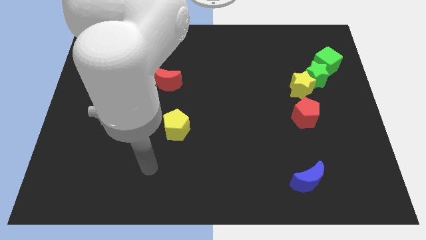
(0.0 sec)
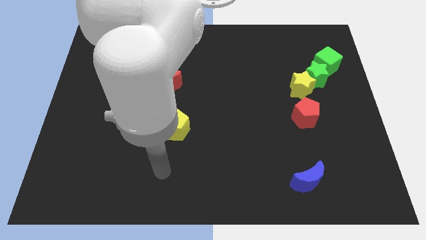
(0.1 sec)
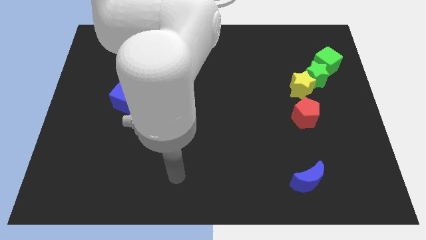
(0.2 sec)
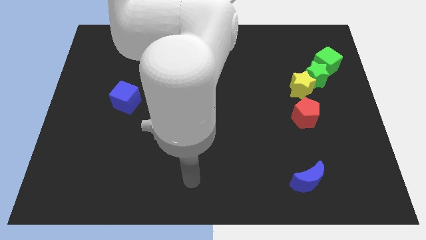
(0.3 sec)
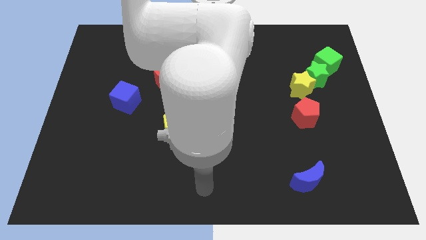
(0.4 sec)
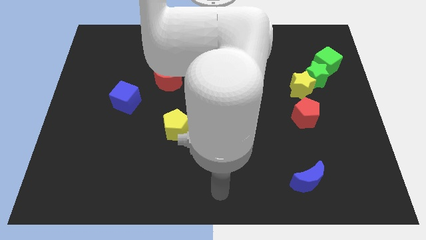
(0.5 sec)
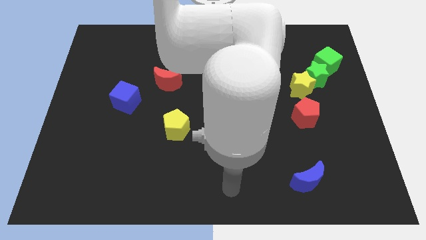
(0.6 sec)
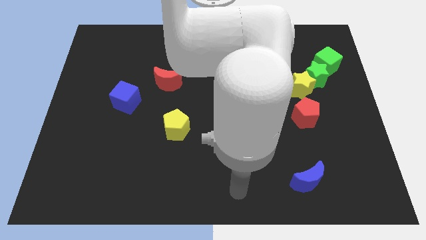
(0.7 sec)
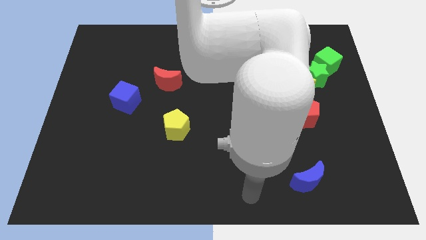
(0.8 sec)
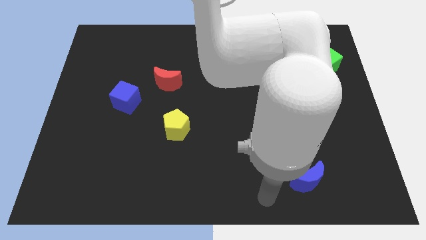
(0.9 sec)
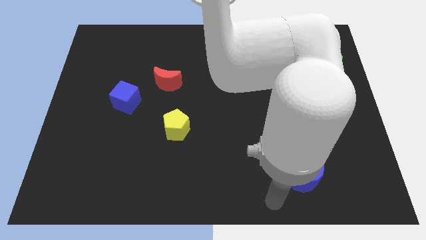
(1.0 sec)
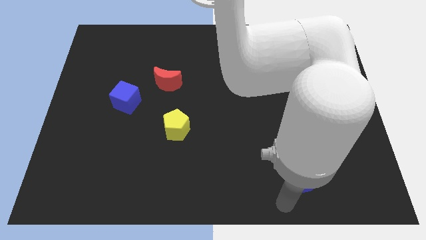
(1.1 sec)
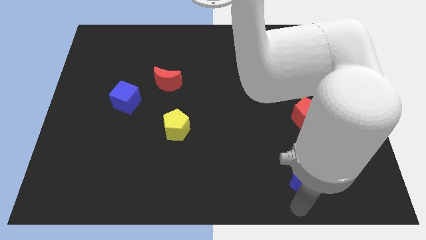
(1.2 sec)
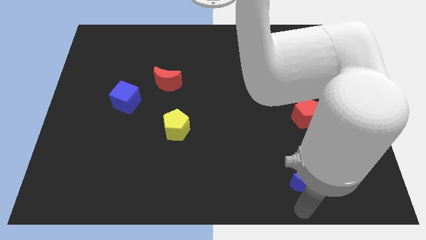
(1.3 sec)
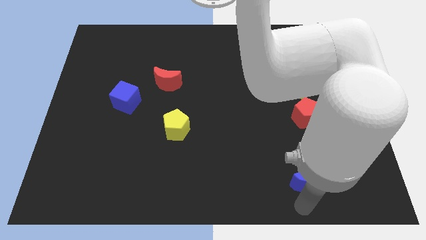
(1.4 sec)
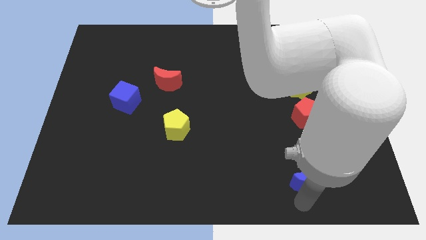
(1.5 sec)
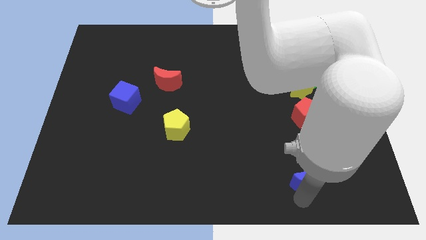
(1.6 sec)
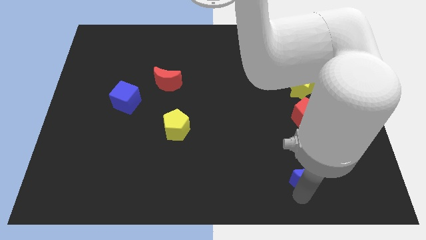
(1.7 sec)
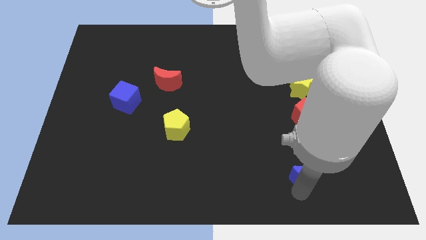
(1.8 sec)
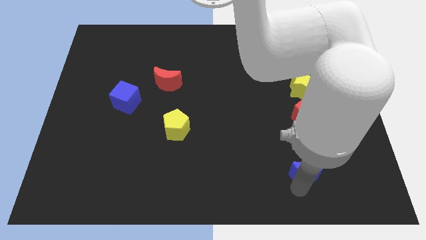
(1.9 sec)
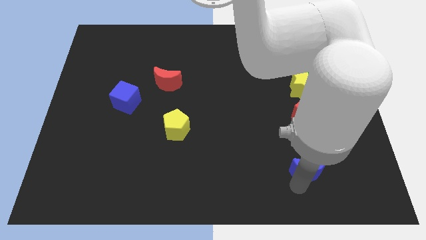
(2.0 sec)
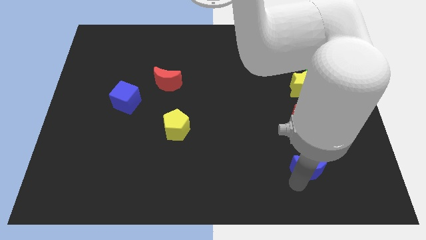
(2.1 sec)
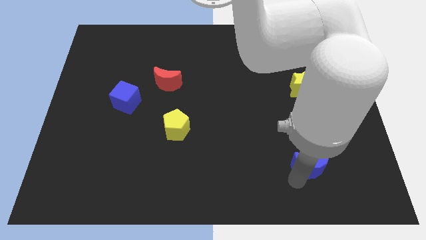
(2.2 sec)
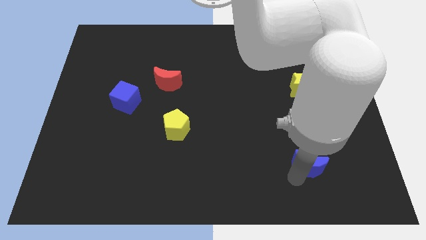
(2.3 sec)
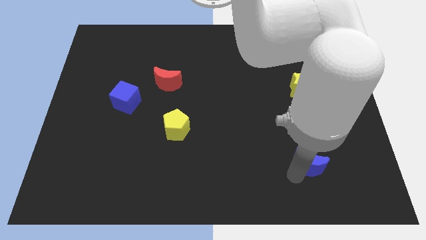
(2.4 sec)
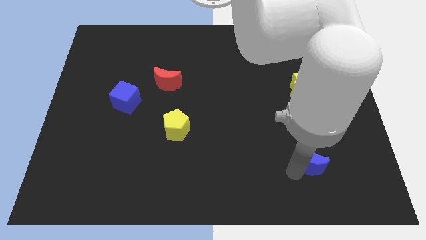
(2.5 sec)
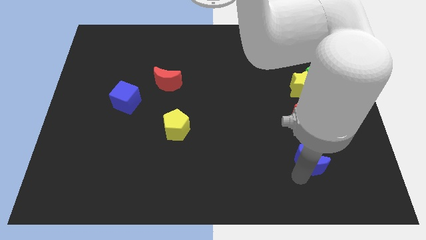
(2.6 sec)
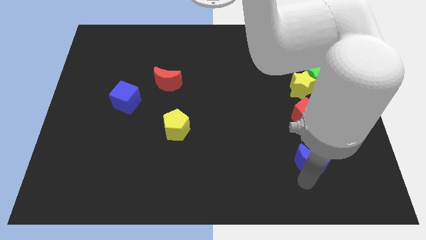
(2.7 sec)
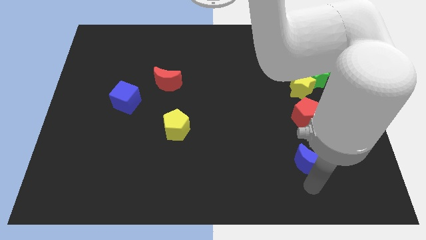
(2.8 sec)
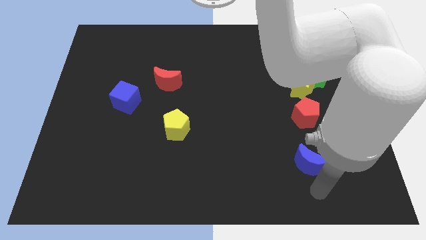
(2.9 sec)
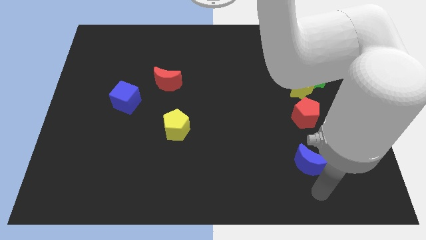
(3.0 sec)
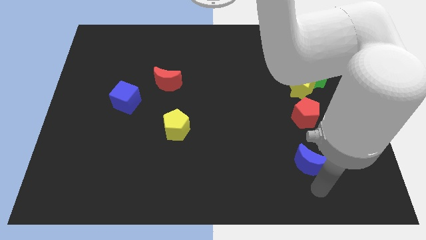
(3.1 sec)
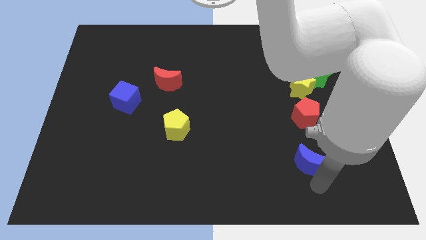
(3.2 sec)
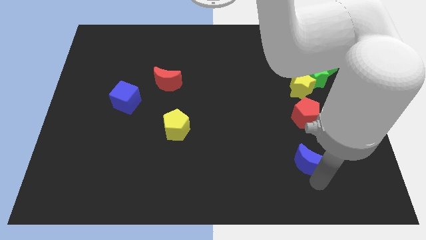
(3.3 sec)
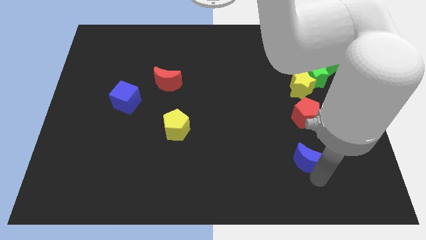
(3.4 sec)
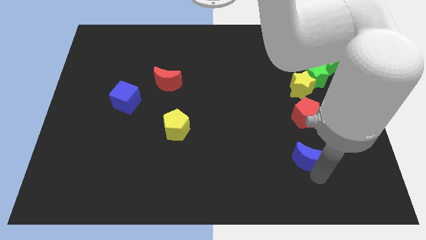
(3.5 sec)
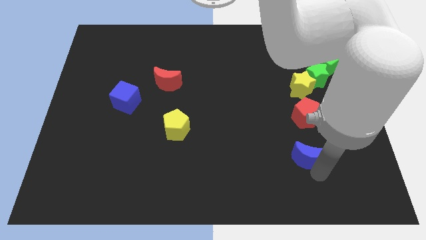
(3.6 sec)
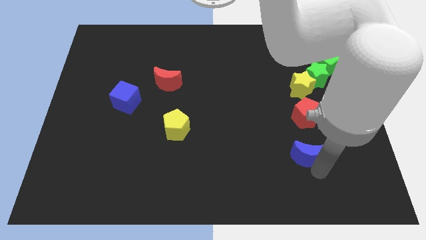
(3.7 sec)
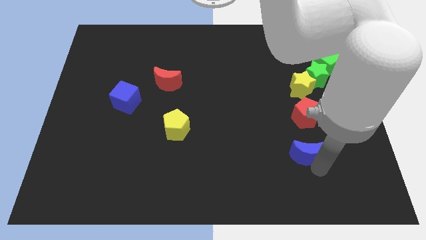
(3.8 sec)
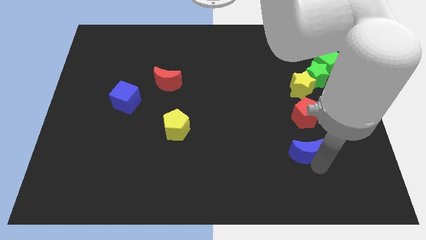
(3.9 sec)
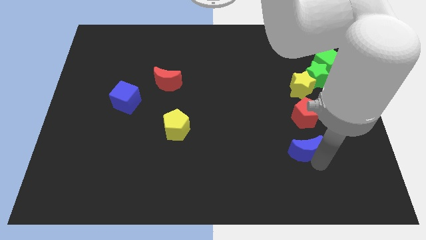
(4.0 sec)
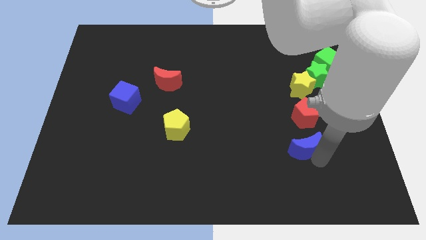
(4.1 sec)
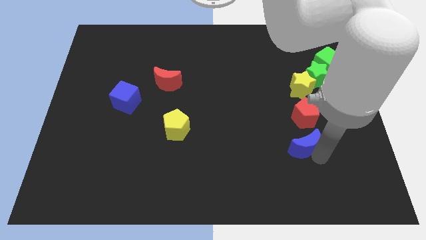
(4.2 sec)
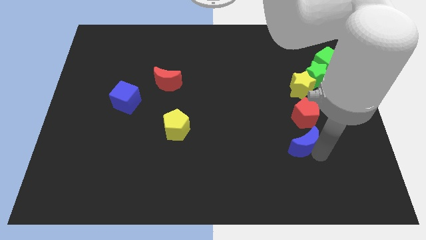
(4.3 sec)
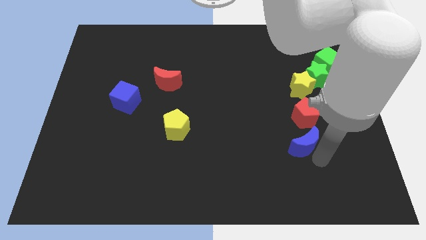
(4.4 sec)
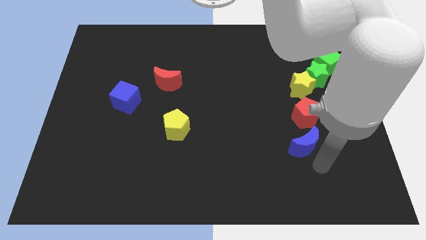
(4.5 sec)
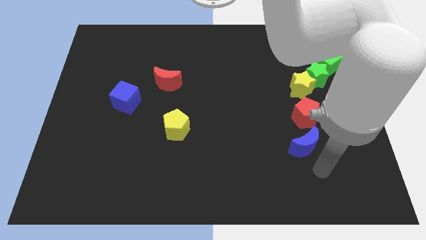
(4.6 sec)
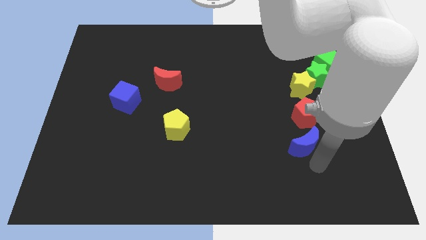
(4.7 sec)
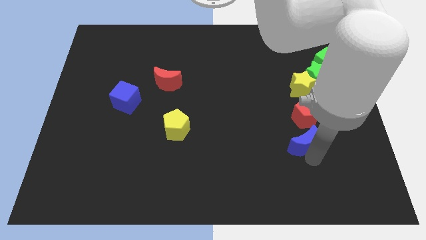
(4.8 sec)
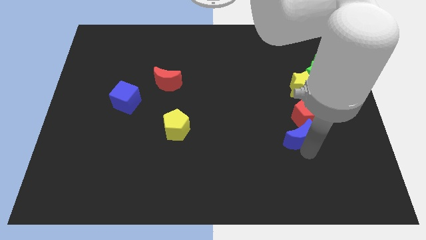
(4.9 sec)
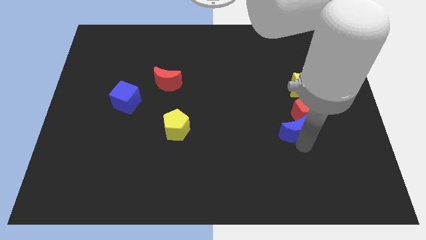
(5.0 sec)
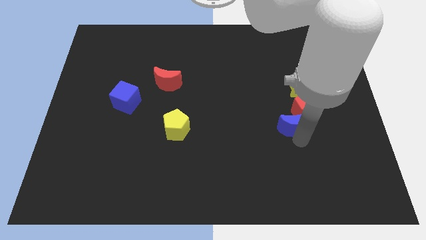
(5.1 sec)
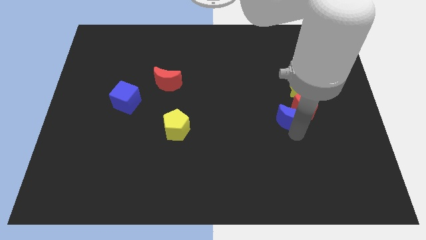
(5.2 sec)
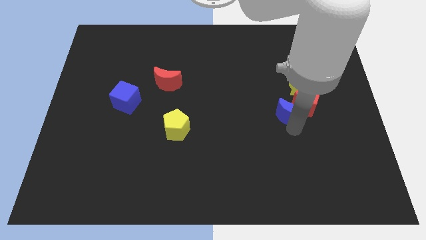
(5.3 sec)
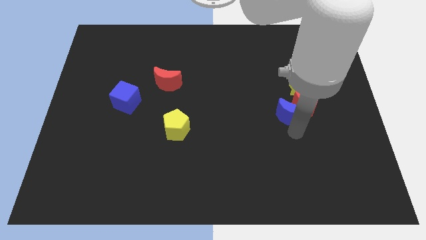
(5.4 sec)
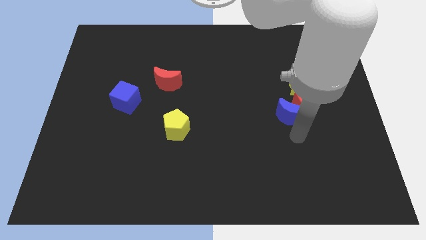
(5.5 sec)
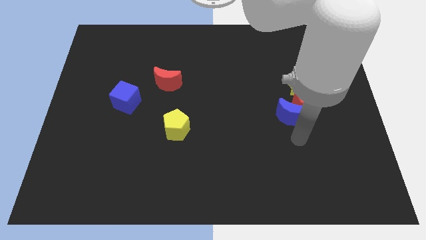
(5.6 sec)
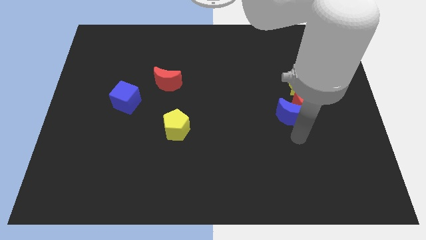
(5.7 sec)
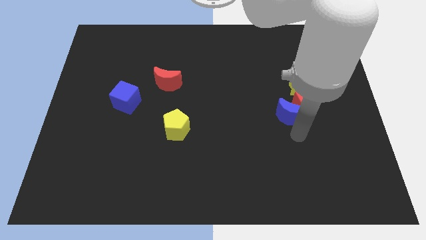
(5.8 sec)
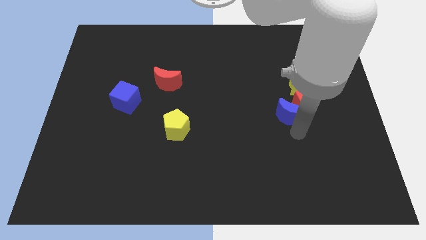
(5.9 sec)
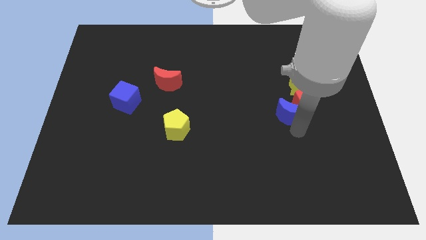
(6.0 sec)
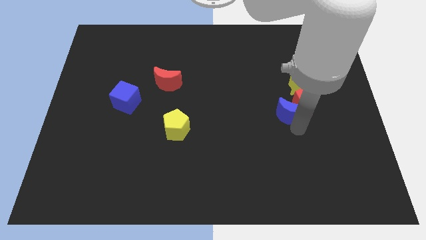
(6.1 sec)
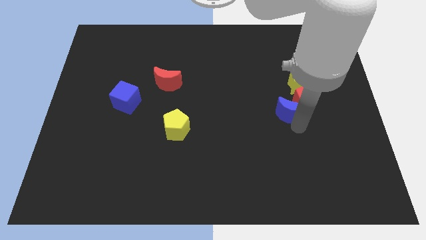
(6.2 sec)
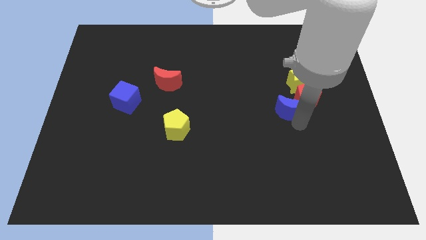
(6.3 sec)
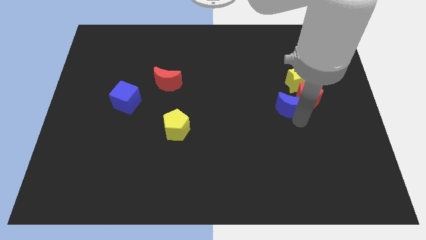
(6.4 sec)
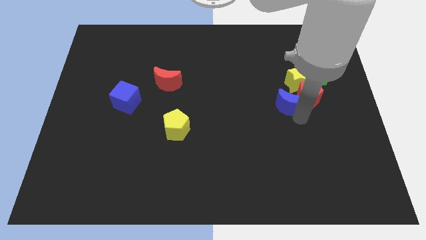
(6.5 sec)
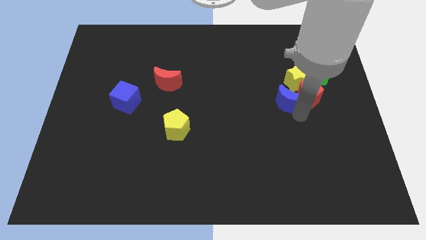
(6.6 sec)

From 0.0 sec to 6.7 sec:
push the blue moon upwards

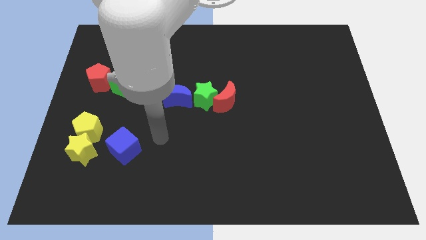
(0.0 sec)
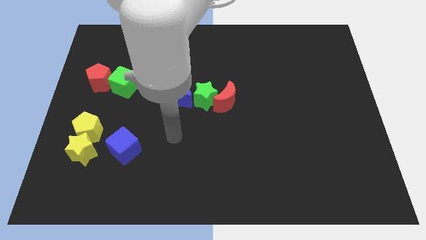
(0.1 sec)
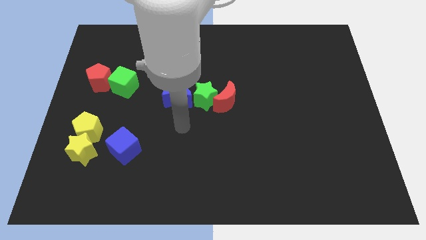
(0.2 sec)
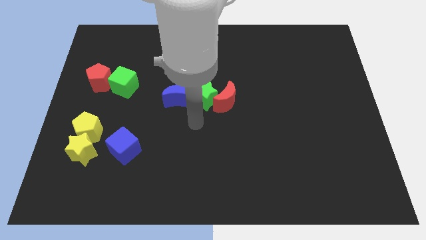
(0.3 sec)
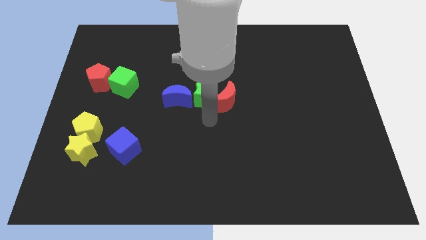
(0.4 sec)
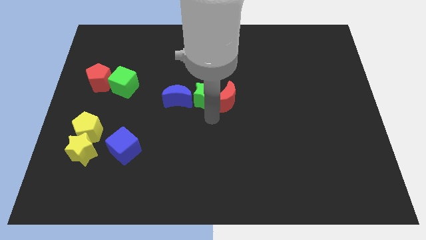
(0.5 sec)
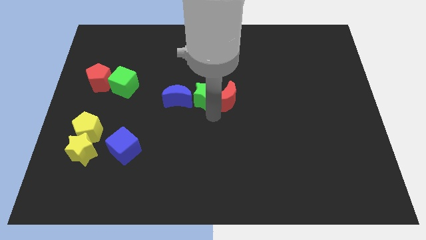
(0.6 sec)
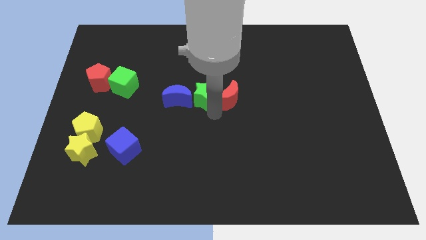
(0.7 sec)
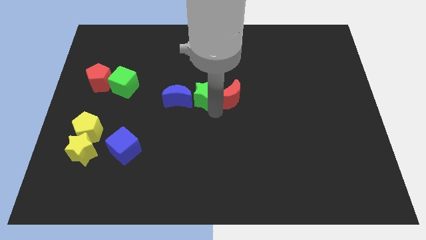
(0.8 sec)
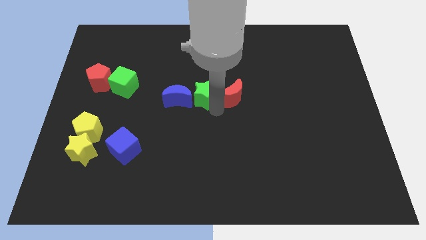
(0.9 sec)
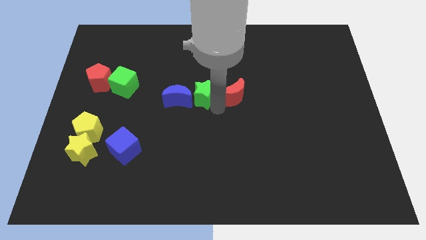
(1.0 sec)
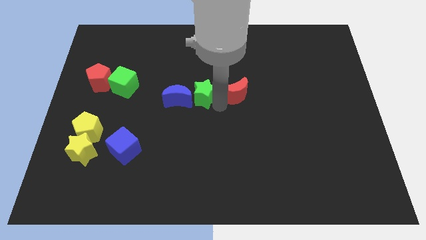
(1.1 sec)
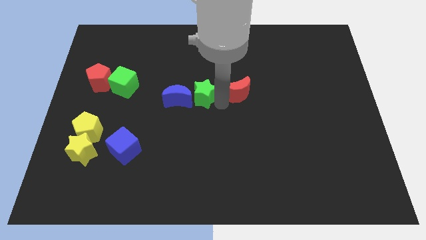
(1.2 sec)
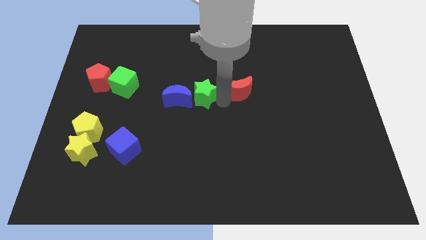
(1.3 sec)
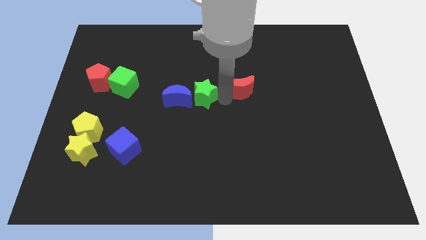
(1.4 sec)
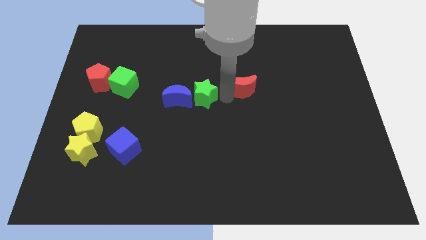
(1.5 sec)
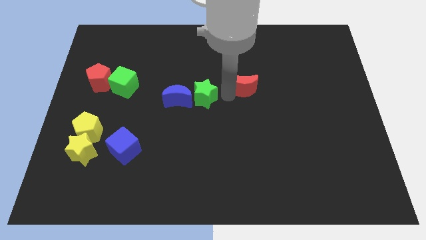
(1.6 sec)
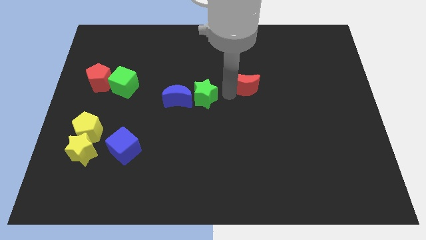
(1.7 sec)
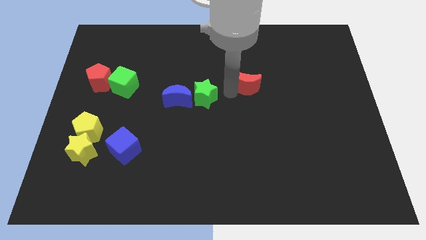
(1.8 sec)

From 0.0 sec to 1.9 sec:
move the red moon diagonally up and to the right a little
